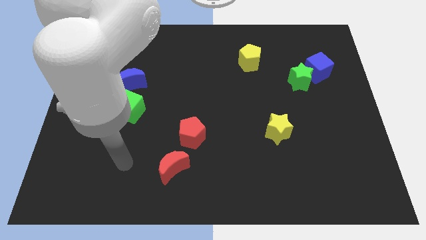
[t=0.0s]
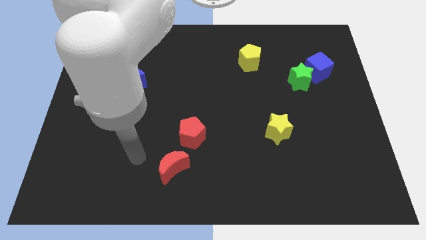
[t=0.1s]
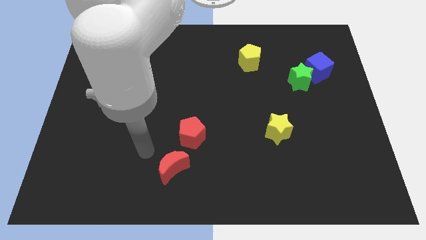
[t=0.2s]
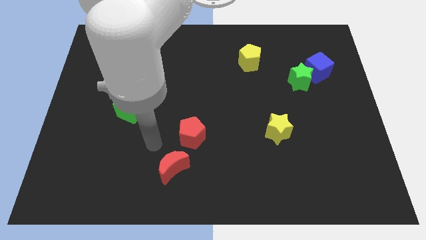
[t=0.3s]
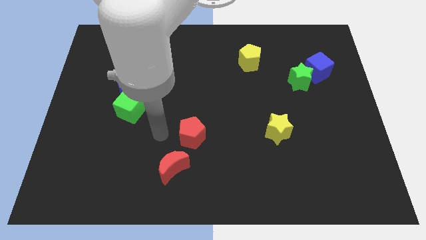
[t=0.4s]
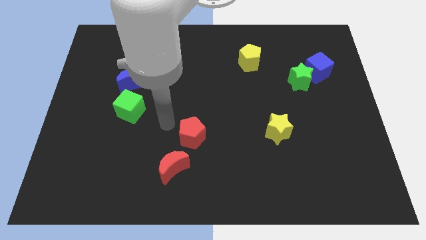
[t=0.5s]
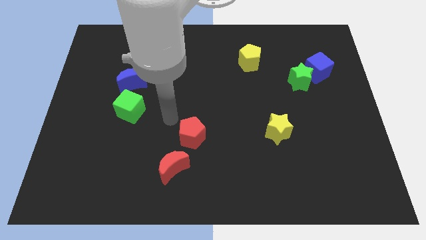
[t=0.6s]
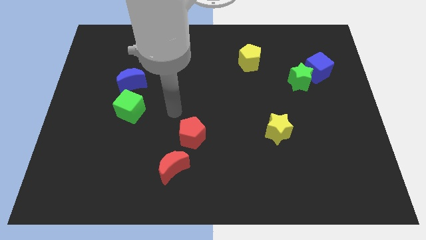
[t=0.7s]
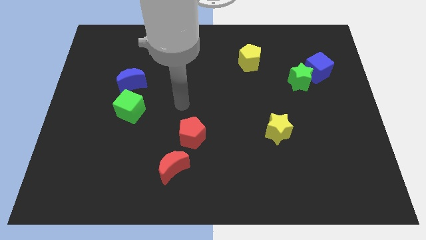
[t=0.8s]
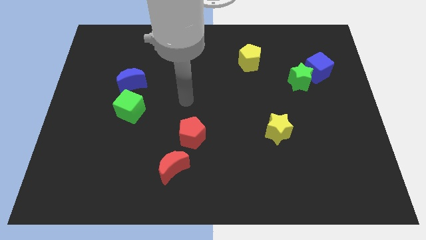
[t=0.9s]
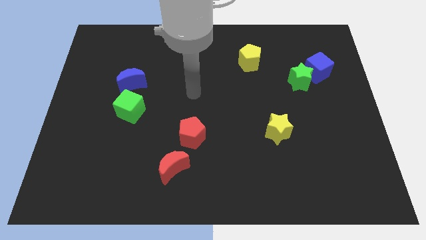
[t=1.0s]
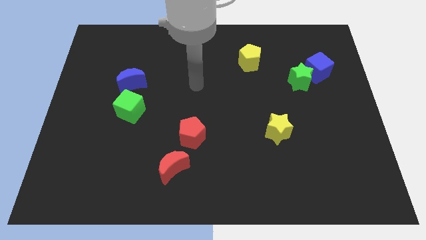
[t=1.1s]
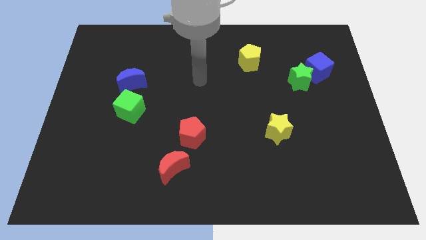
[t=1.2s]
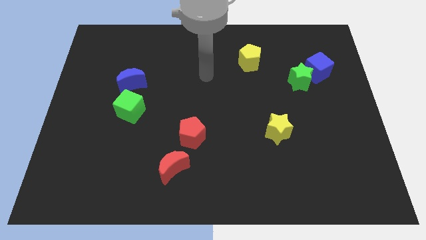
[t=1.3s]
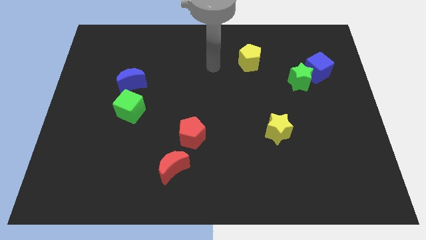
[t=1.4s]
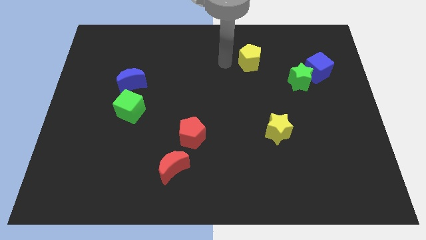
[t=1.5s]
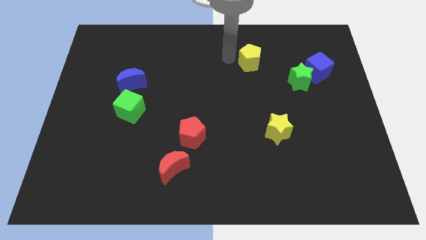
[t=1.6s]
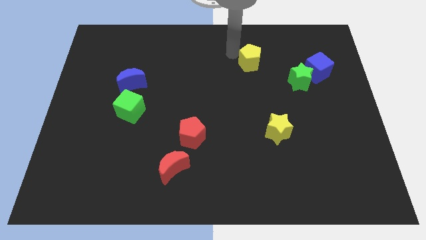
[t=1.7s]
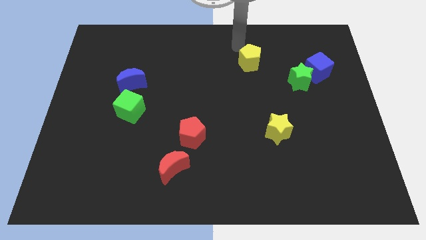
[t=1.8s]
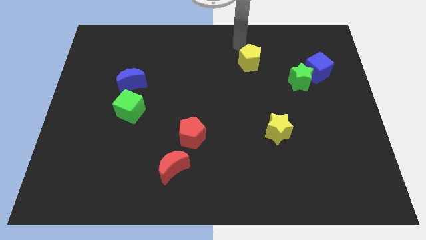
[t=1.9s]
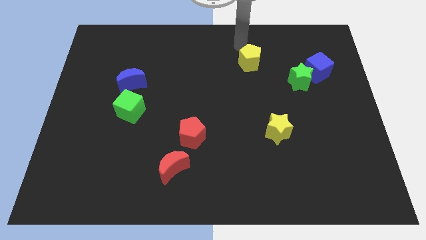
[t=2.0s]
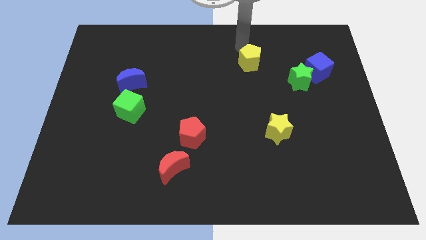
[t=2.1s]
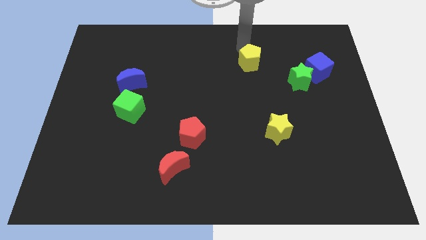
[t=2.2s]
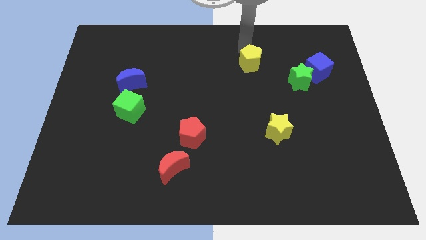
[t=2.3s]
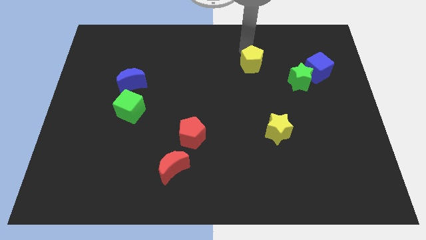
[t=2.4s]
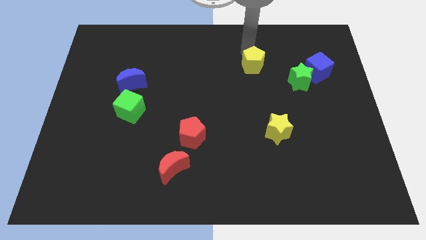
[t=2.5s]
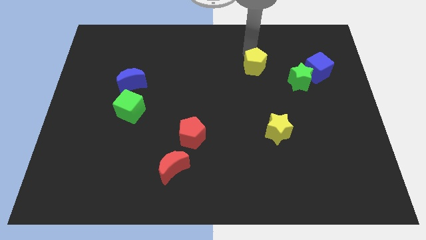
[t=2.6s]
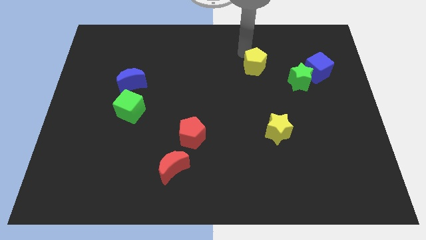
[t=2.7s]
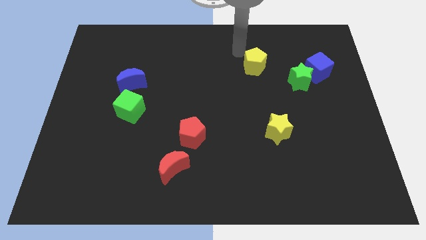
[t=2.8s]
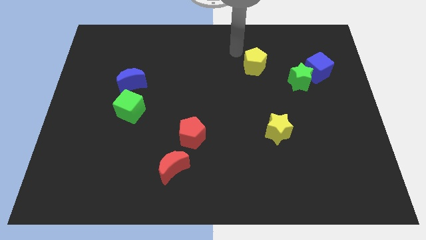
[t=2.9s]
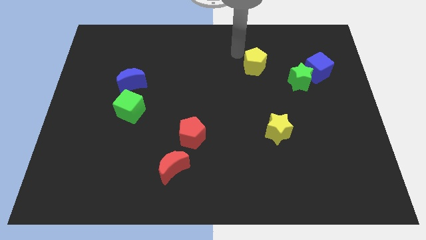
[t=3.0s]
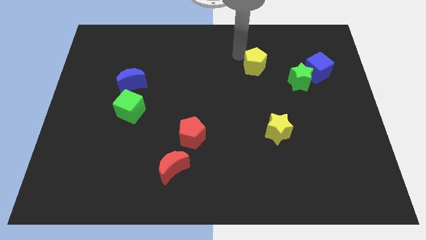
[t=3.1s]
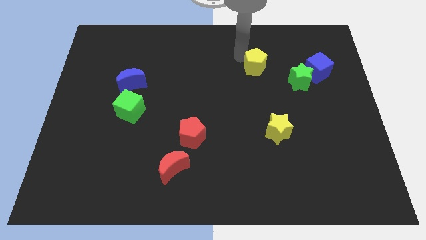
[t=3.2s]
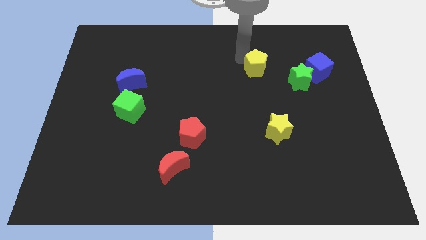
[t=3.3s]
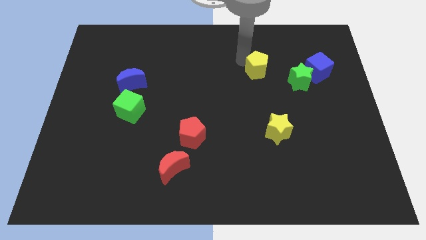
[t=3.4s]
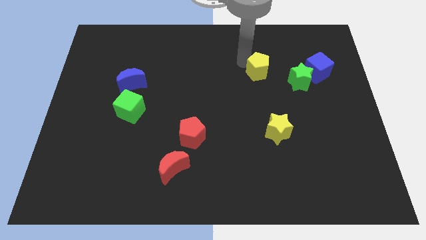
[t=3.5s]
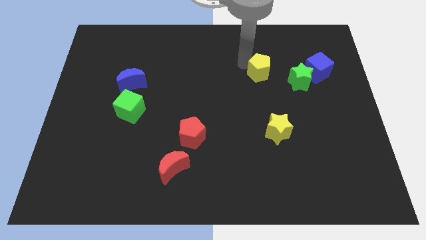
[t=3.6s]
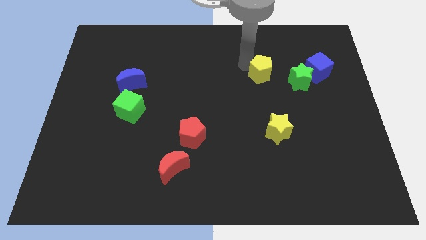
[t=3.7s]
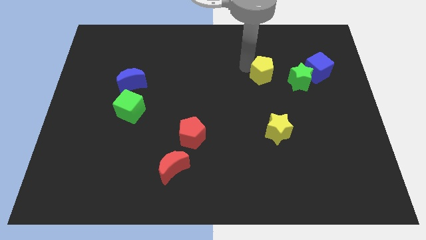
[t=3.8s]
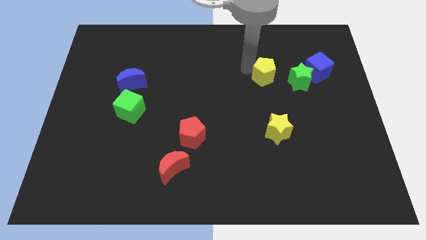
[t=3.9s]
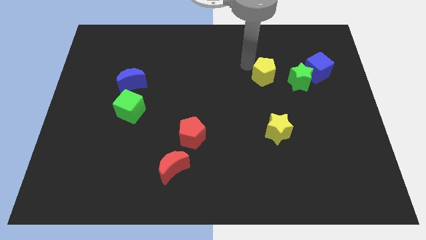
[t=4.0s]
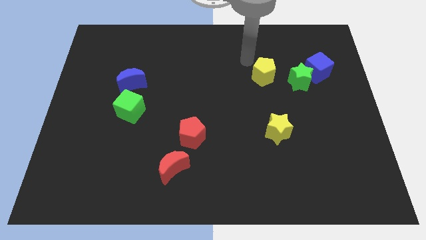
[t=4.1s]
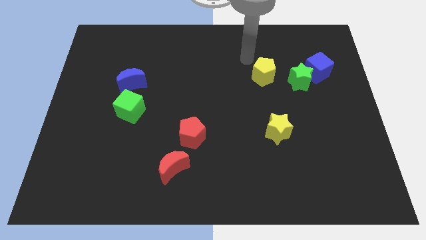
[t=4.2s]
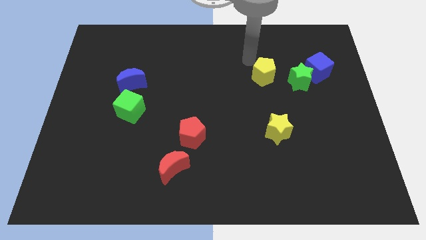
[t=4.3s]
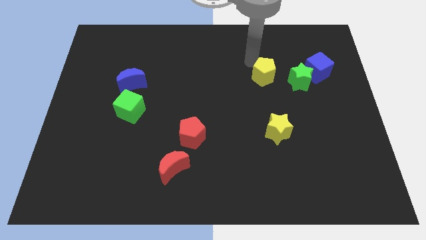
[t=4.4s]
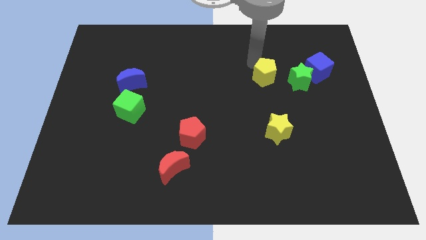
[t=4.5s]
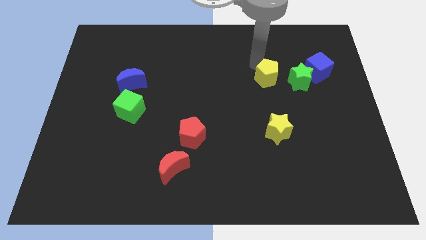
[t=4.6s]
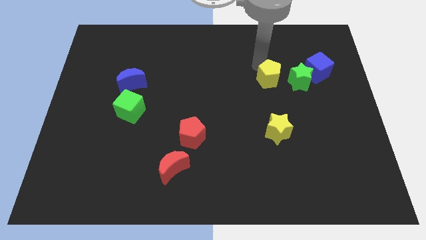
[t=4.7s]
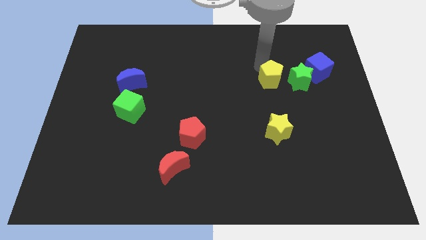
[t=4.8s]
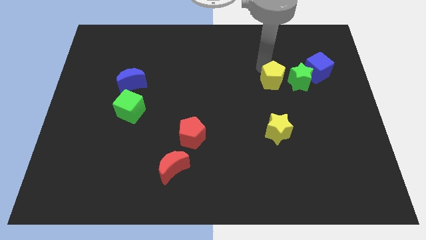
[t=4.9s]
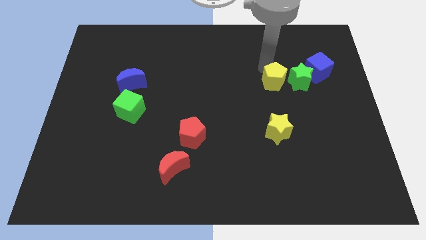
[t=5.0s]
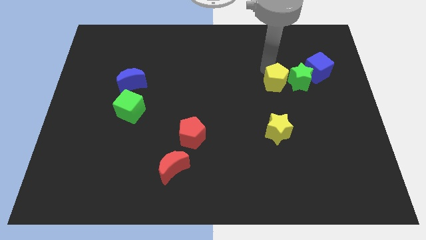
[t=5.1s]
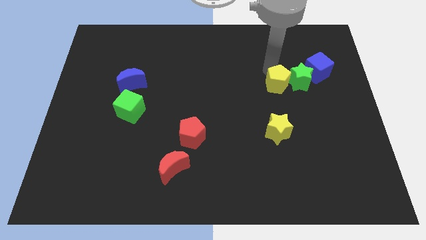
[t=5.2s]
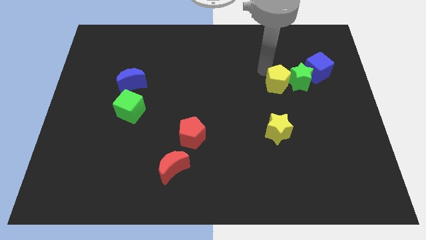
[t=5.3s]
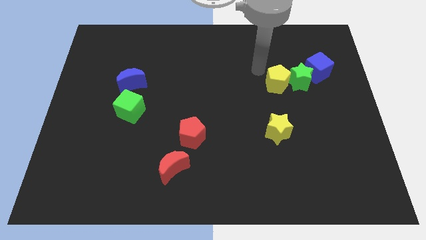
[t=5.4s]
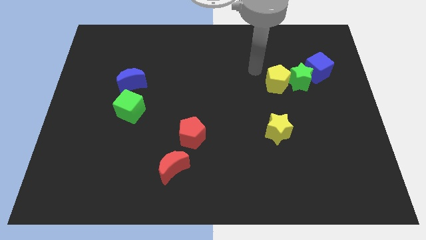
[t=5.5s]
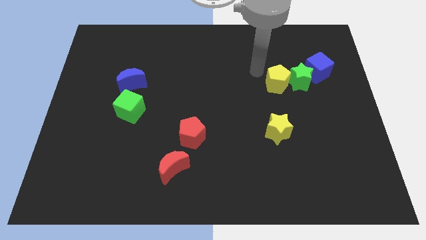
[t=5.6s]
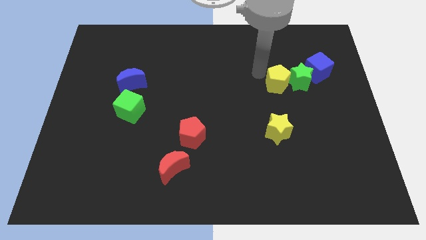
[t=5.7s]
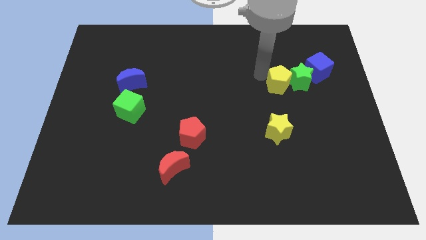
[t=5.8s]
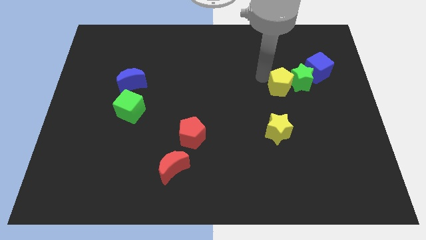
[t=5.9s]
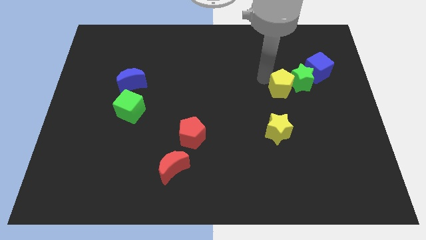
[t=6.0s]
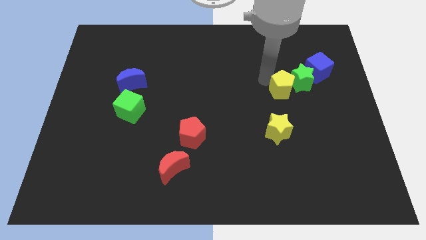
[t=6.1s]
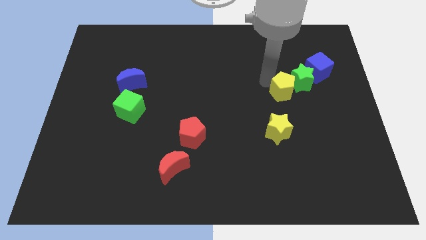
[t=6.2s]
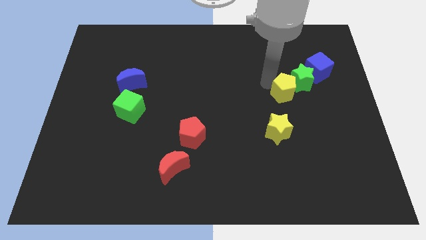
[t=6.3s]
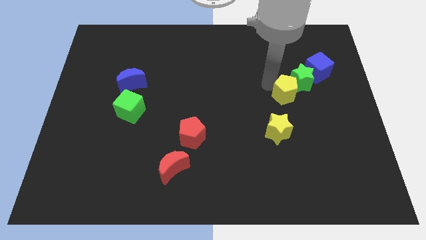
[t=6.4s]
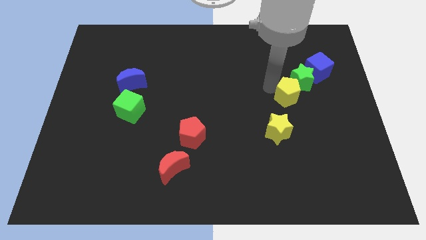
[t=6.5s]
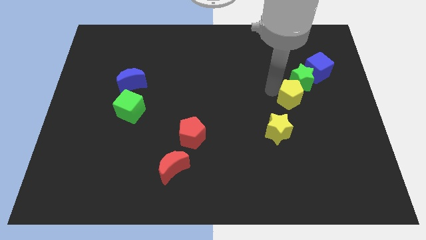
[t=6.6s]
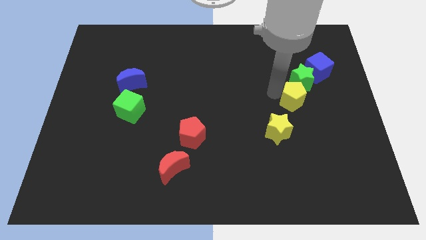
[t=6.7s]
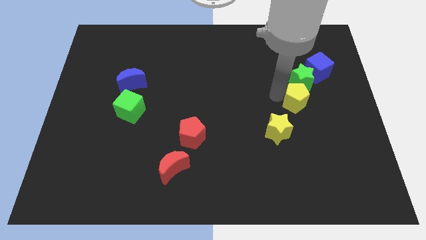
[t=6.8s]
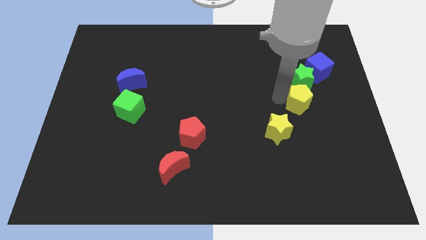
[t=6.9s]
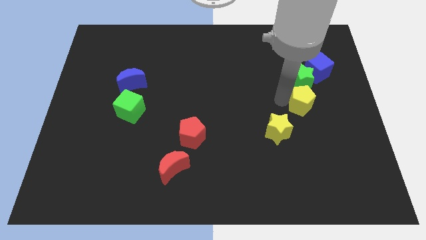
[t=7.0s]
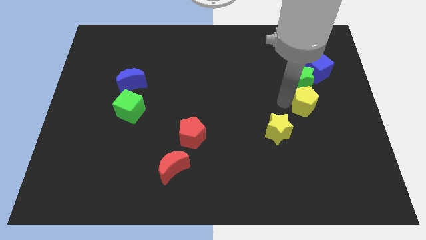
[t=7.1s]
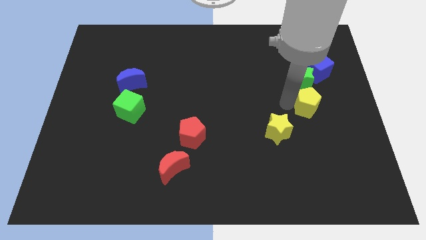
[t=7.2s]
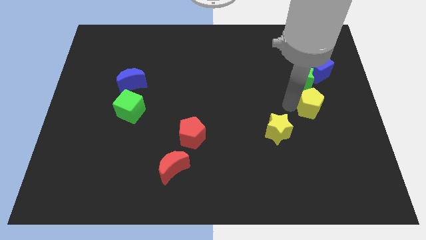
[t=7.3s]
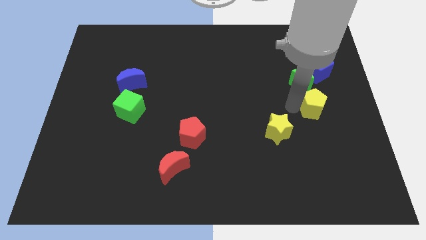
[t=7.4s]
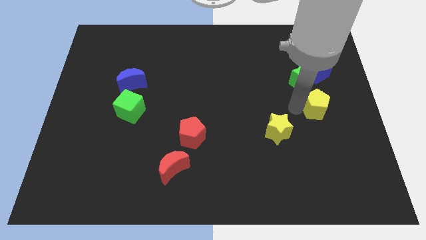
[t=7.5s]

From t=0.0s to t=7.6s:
slide the yellow pentagon to the bottom right side of the green star

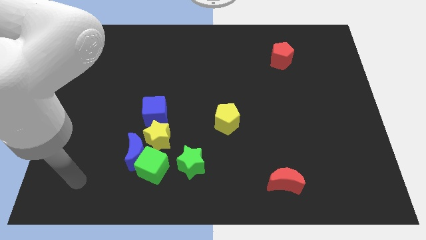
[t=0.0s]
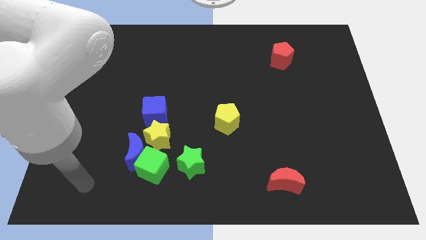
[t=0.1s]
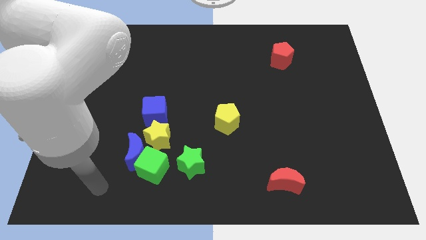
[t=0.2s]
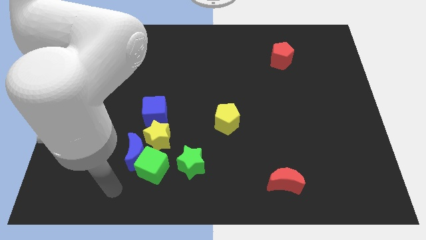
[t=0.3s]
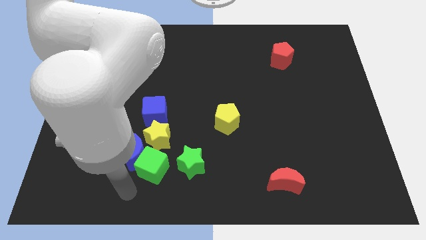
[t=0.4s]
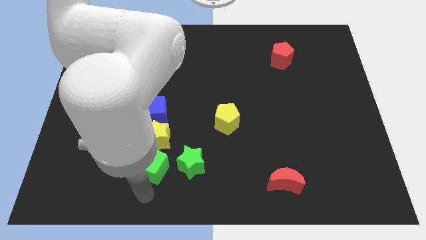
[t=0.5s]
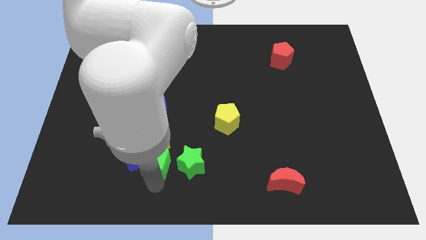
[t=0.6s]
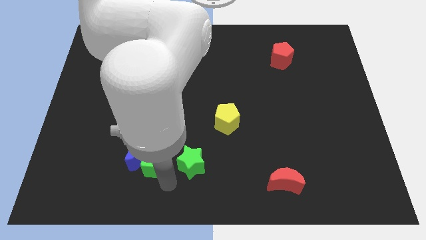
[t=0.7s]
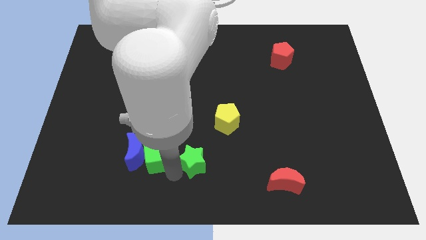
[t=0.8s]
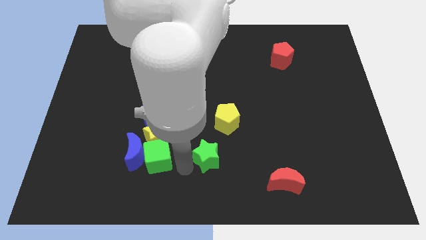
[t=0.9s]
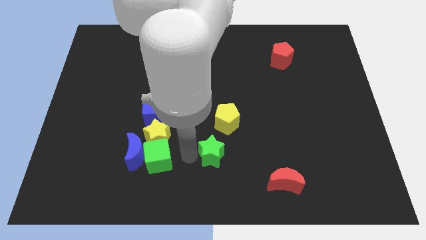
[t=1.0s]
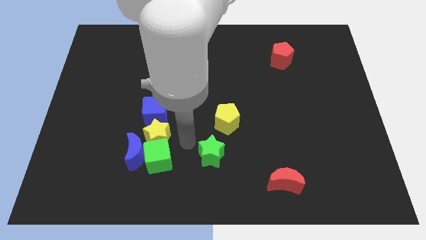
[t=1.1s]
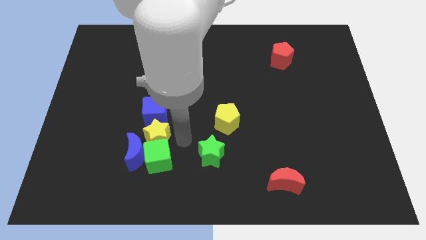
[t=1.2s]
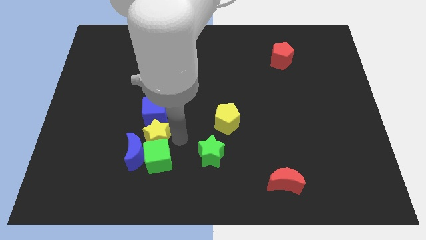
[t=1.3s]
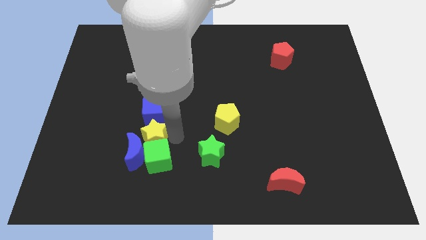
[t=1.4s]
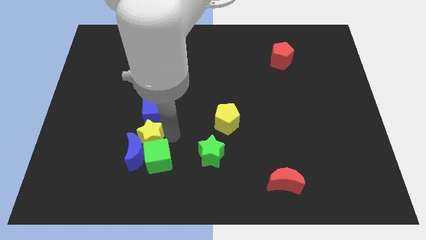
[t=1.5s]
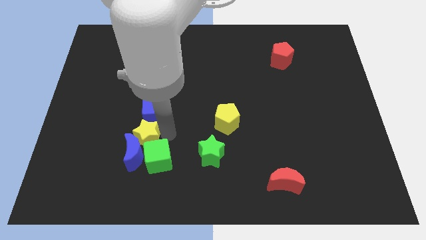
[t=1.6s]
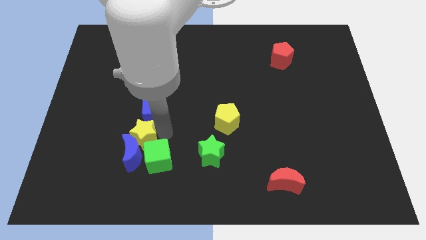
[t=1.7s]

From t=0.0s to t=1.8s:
slide the yellow star diagonally up and to the left of the blue moon
